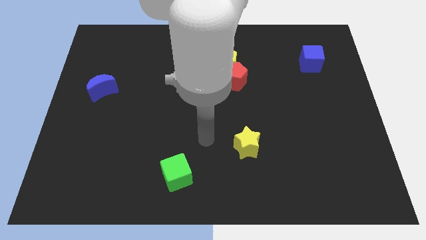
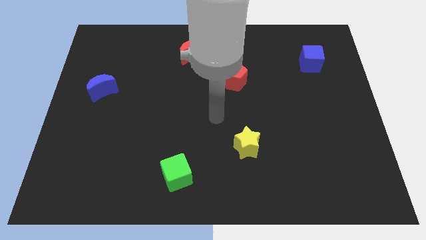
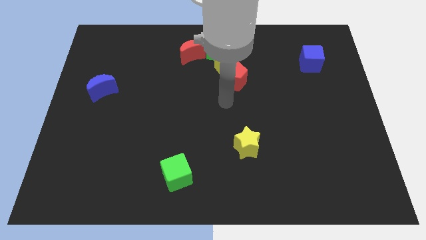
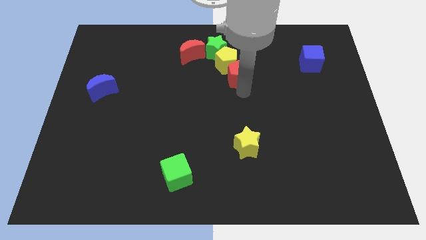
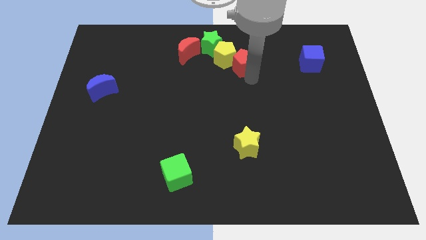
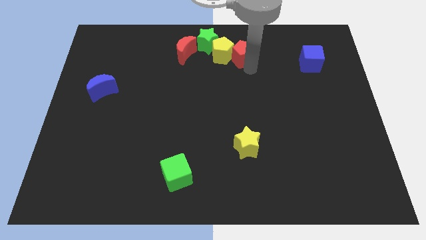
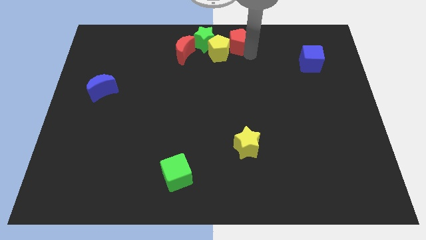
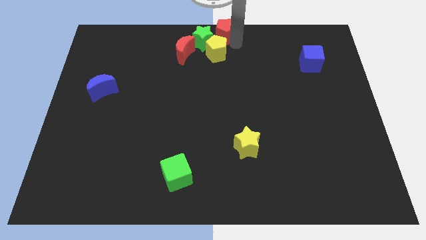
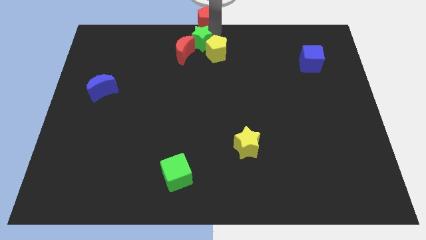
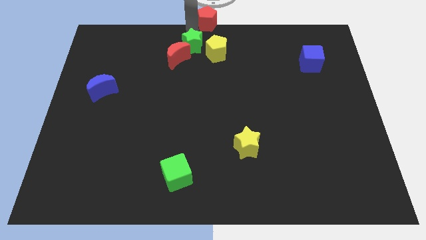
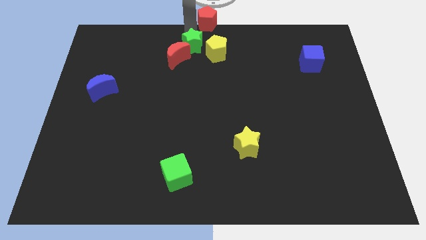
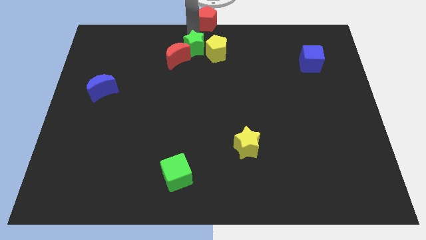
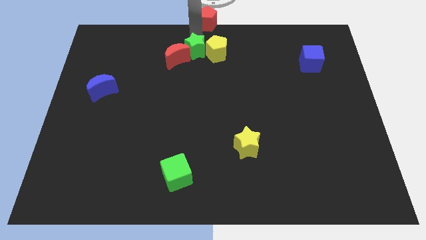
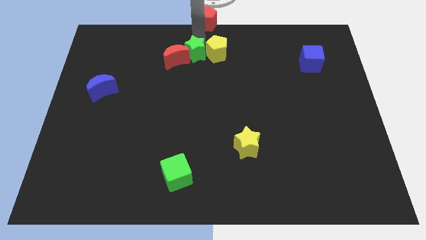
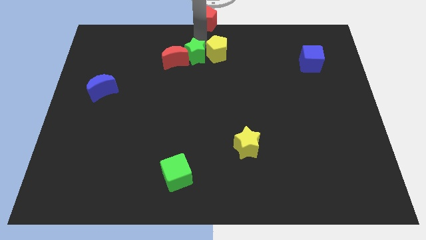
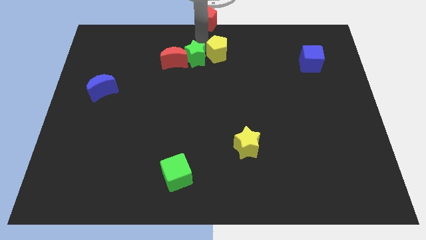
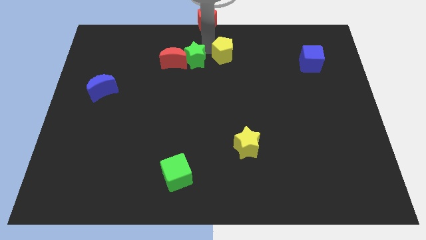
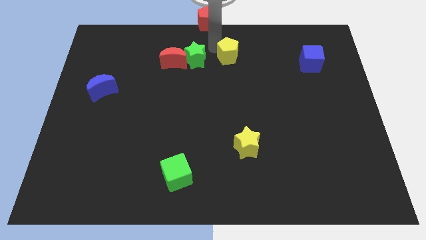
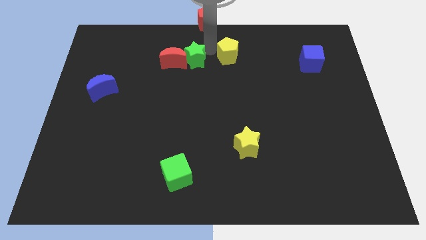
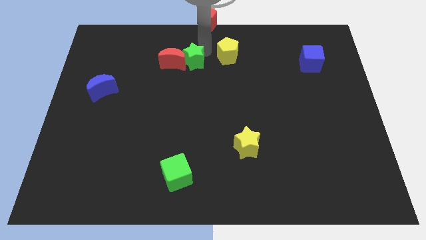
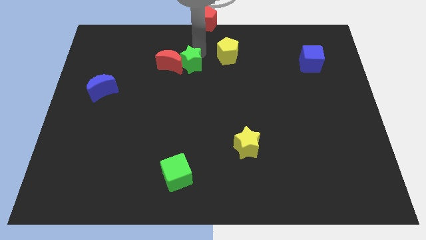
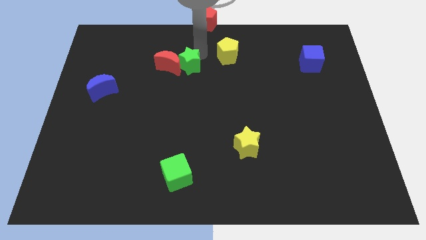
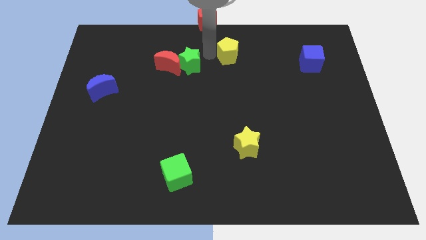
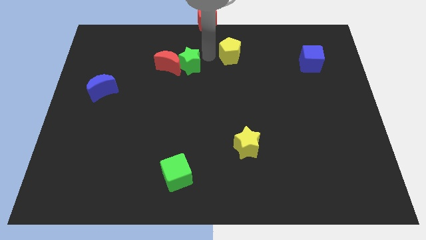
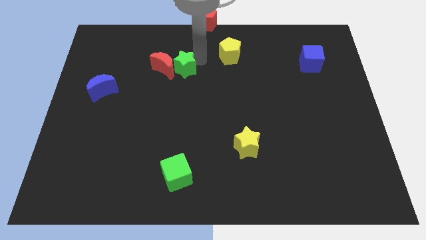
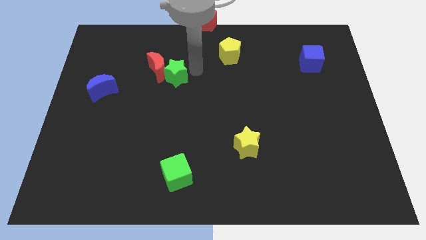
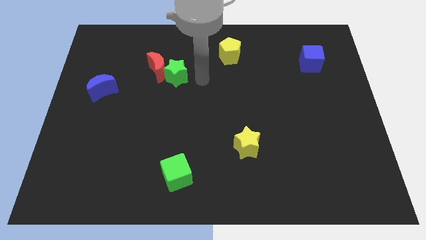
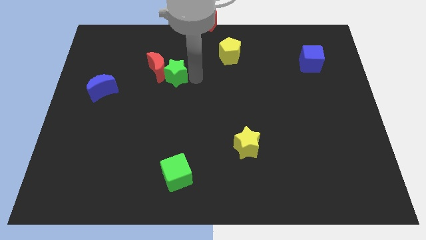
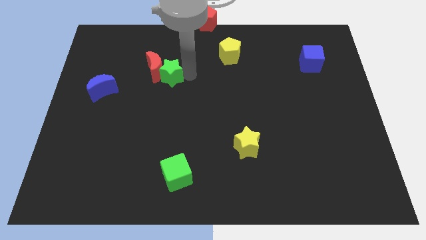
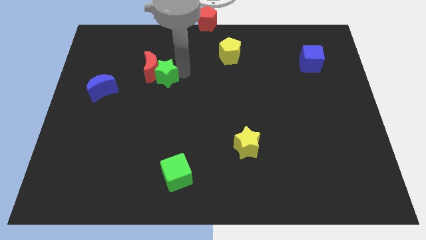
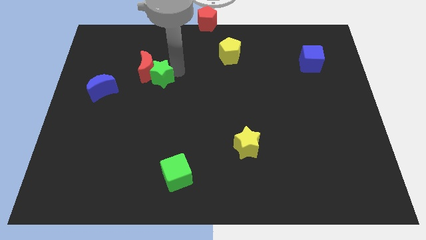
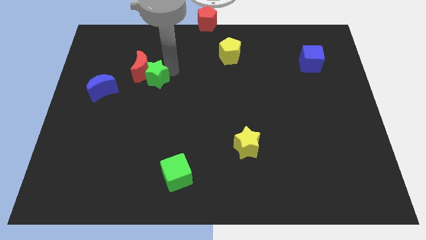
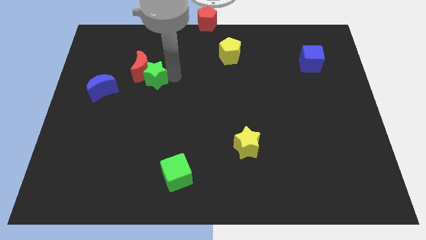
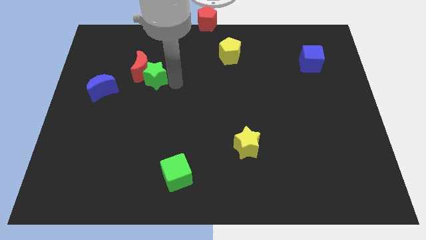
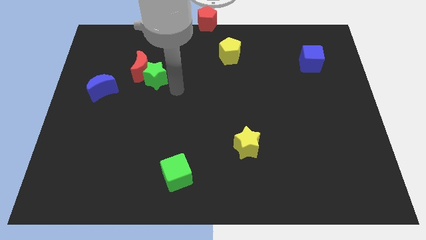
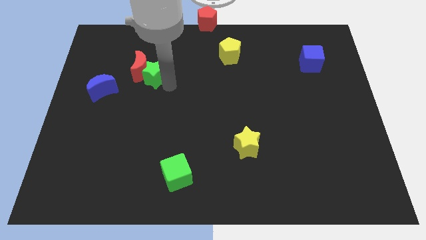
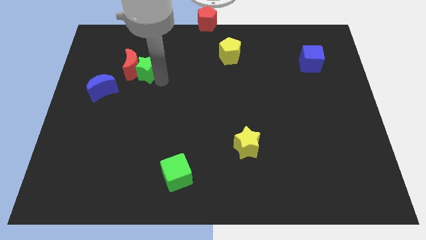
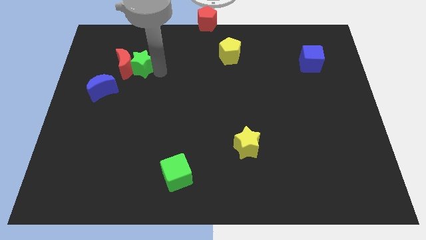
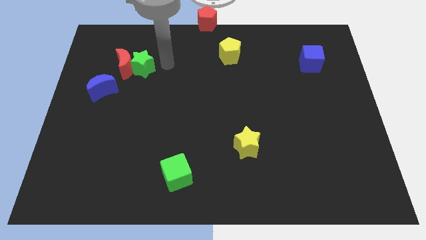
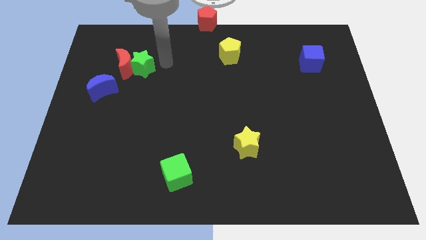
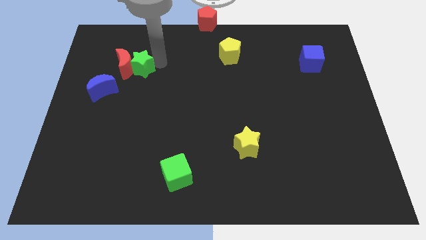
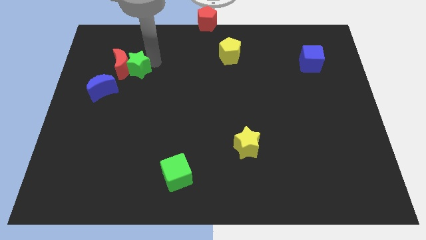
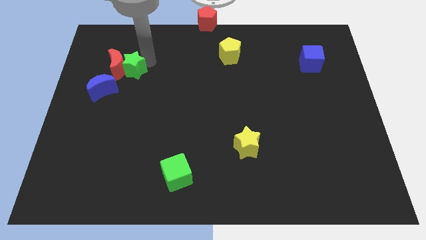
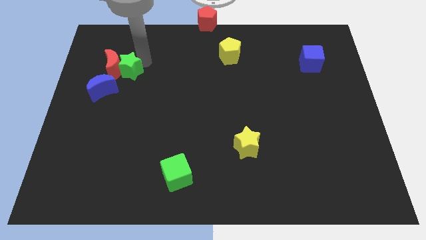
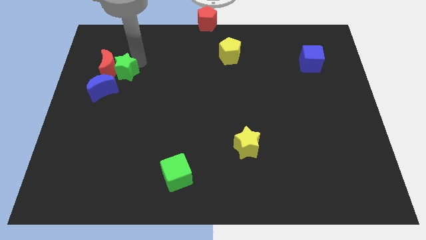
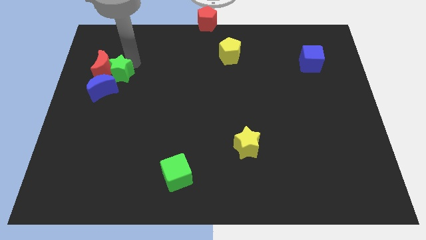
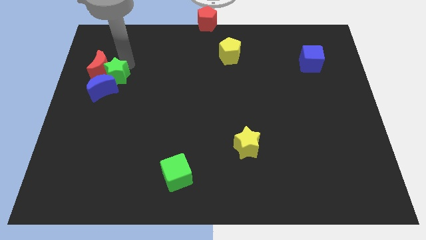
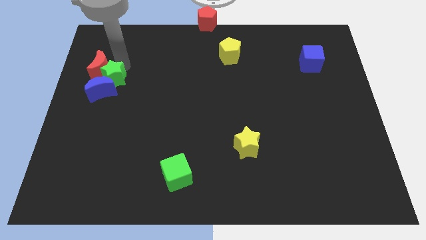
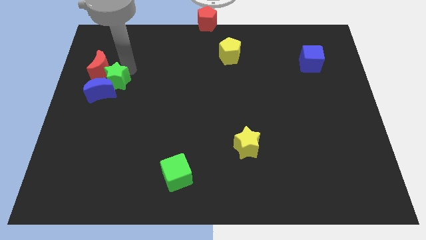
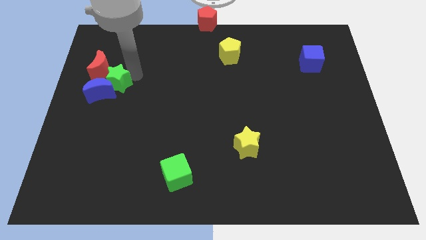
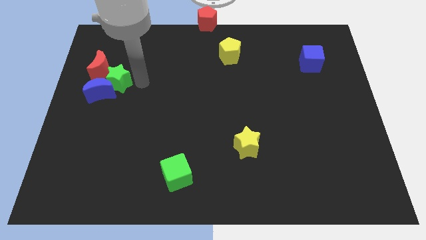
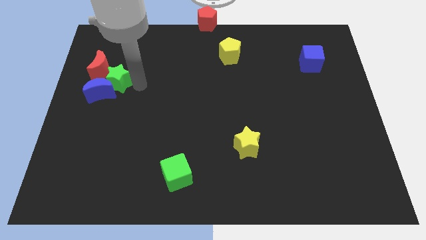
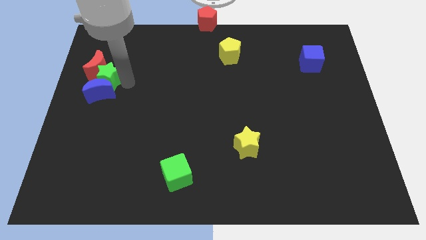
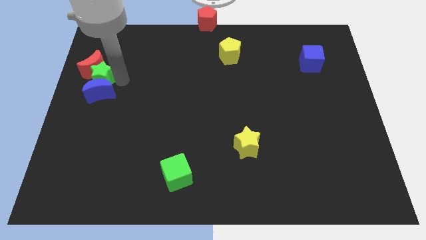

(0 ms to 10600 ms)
move the green star to the left side of the board
